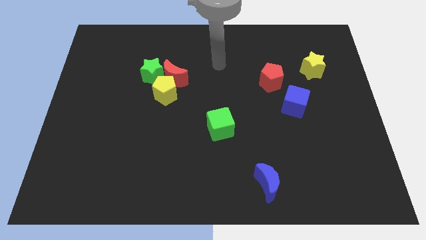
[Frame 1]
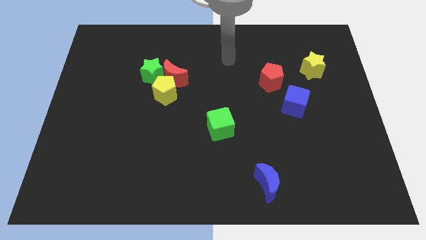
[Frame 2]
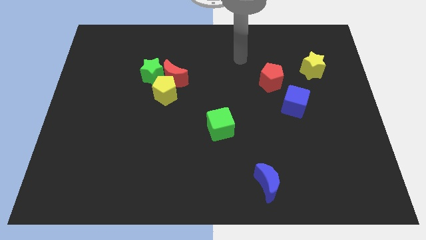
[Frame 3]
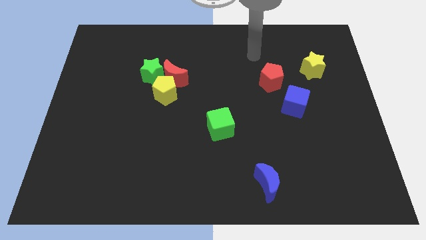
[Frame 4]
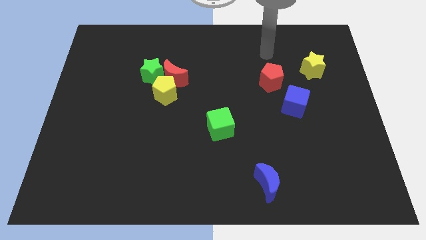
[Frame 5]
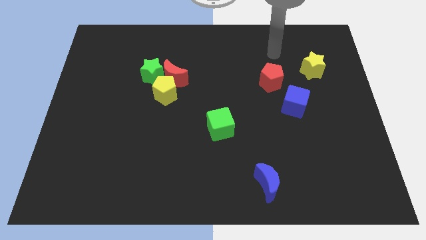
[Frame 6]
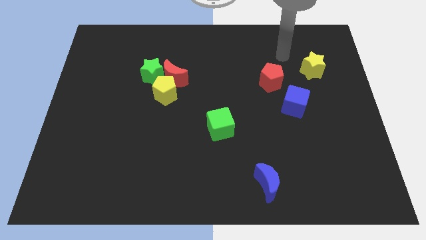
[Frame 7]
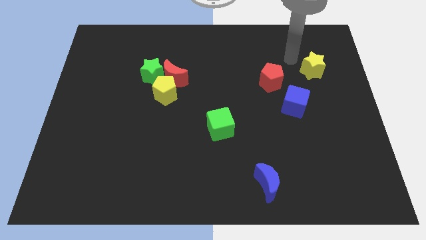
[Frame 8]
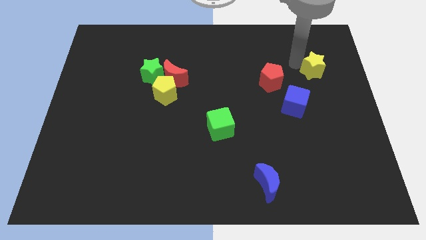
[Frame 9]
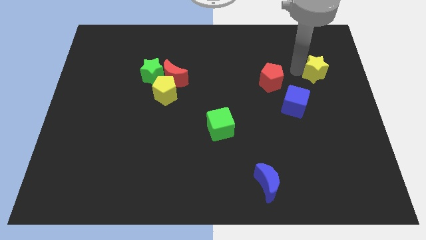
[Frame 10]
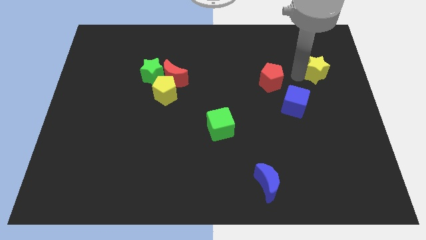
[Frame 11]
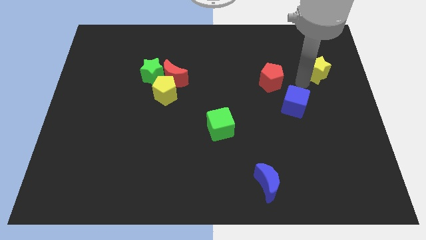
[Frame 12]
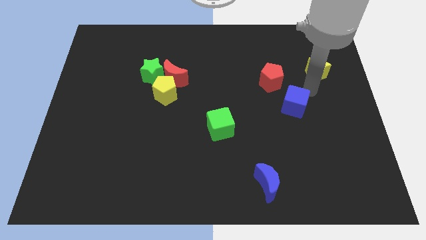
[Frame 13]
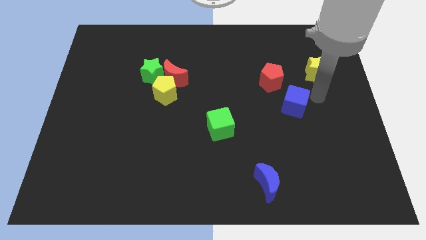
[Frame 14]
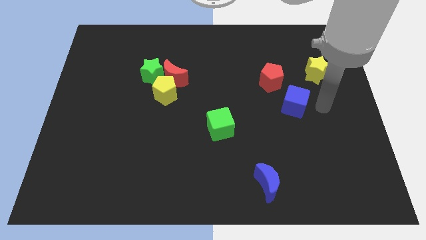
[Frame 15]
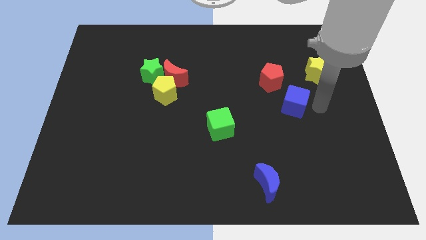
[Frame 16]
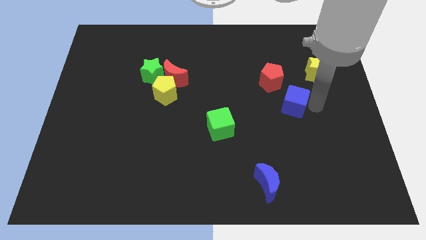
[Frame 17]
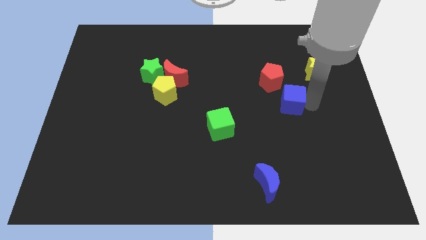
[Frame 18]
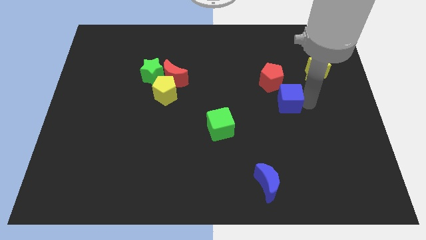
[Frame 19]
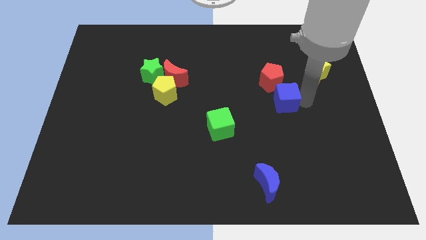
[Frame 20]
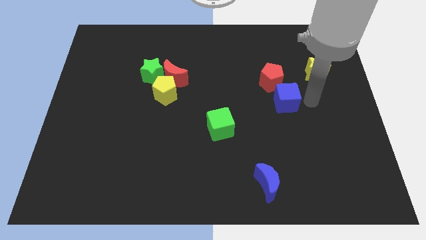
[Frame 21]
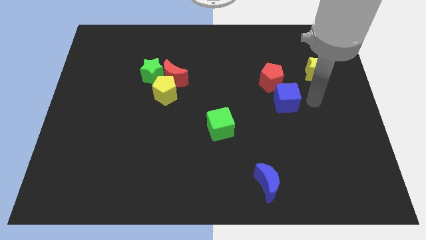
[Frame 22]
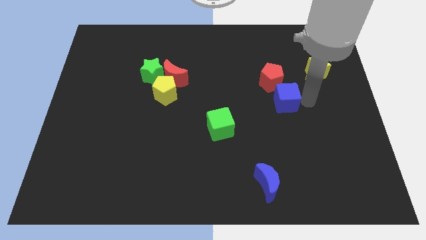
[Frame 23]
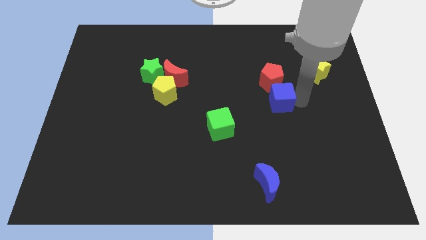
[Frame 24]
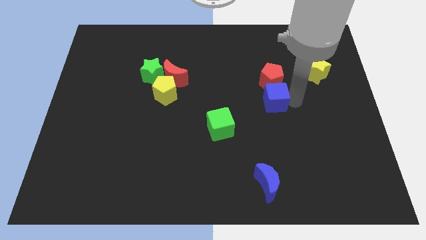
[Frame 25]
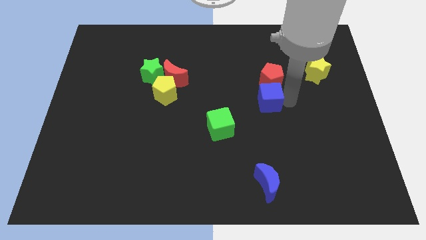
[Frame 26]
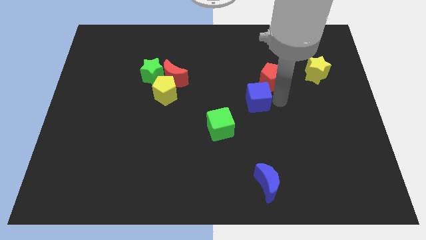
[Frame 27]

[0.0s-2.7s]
slide the blue cube to the left a bit

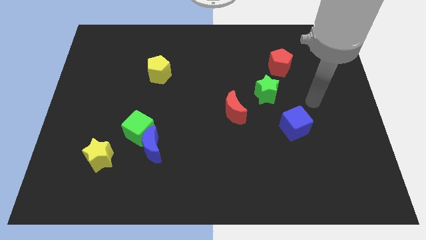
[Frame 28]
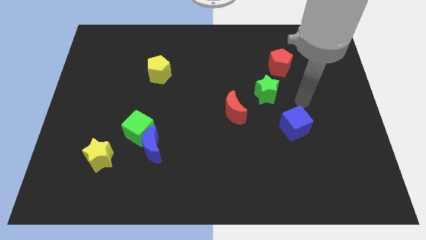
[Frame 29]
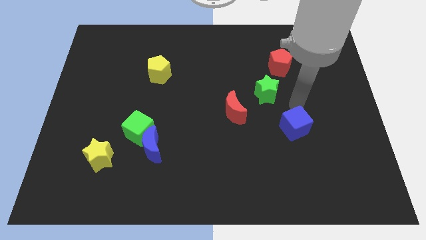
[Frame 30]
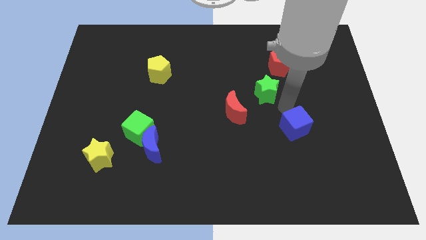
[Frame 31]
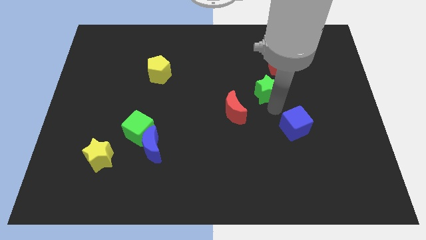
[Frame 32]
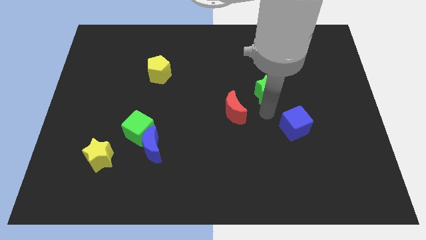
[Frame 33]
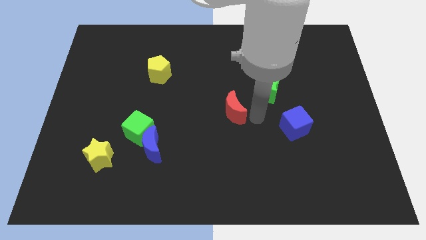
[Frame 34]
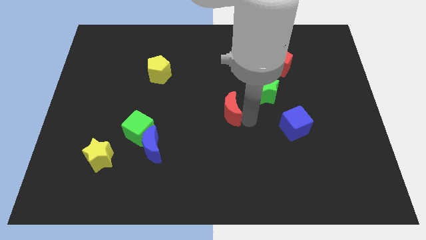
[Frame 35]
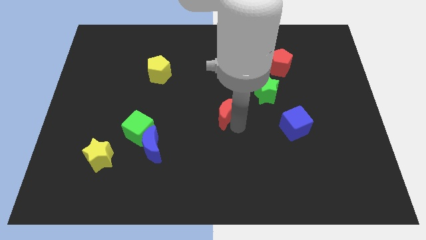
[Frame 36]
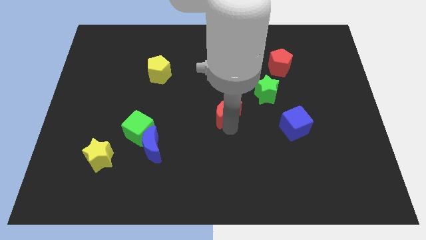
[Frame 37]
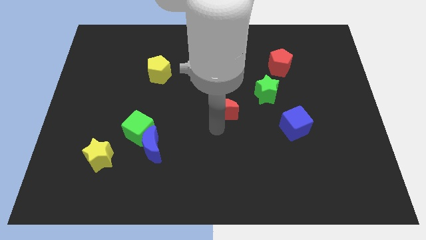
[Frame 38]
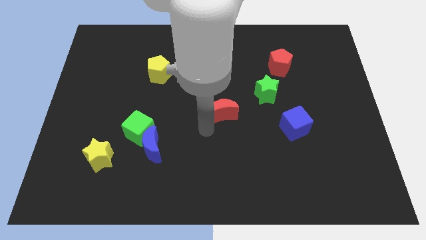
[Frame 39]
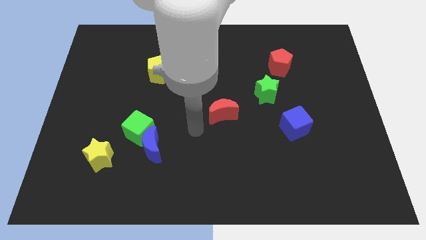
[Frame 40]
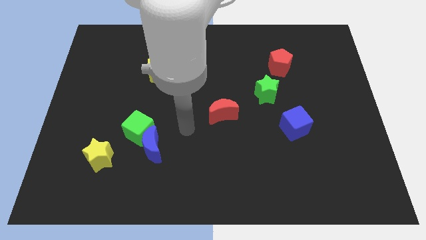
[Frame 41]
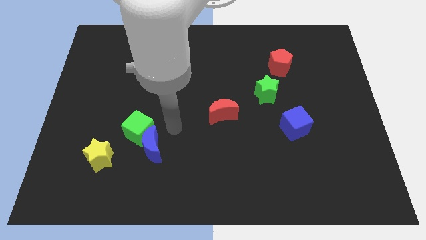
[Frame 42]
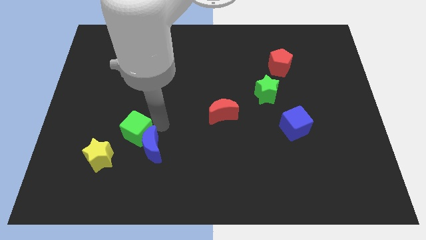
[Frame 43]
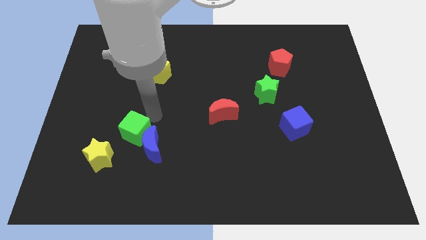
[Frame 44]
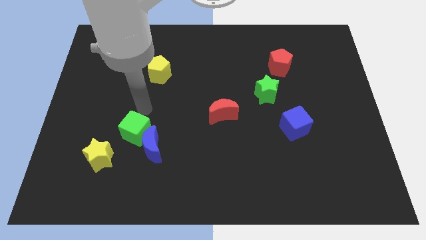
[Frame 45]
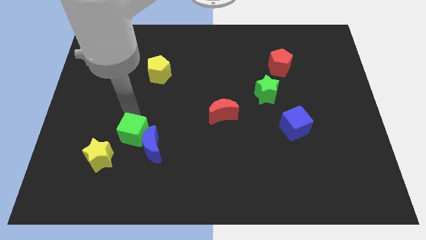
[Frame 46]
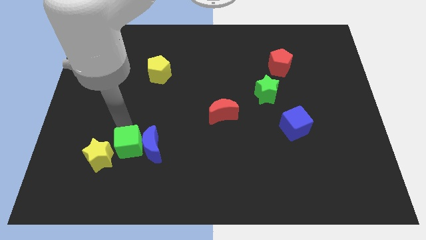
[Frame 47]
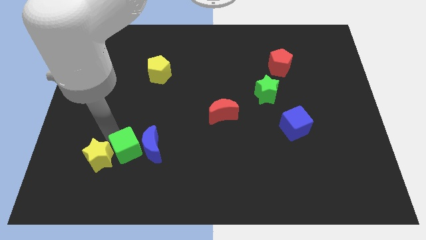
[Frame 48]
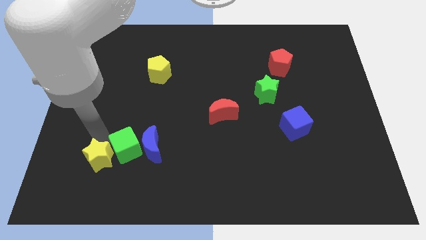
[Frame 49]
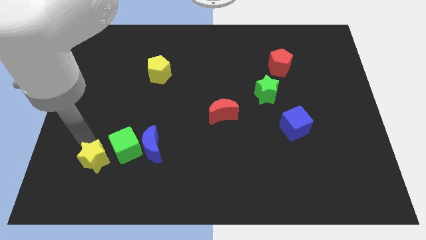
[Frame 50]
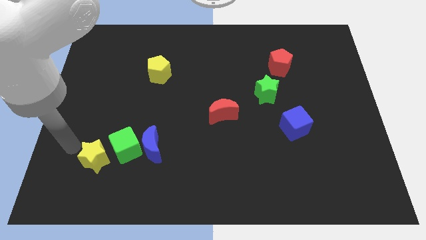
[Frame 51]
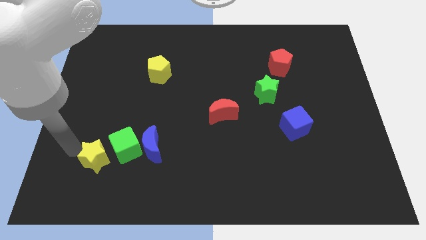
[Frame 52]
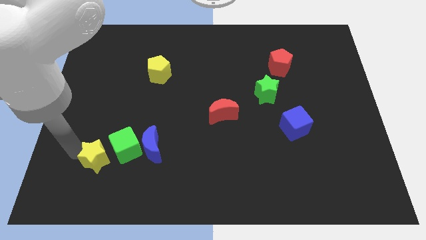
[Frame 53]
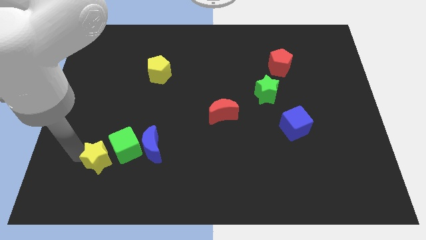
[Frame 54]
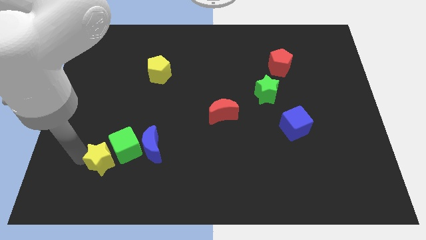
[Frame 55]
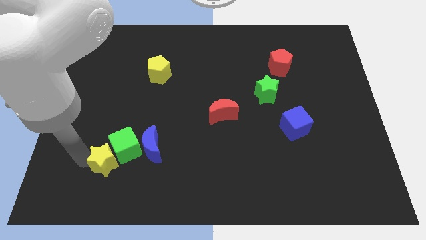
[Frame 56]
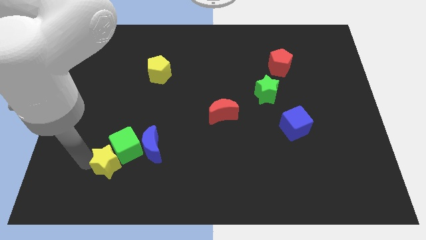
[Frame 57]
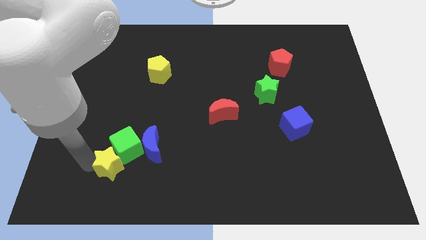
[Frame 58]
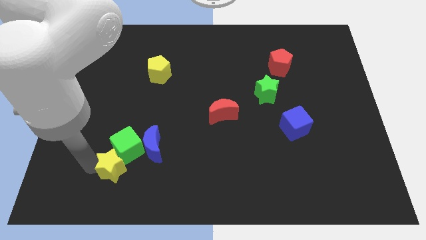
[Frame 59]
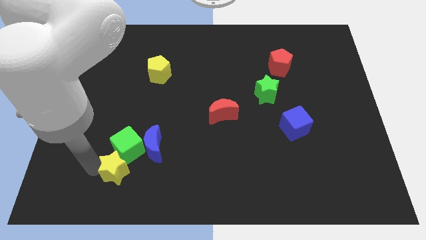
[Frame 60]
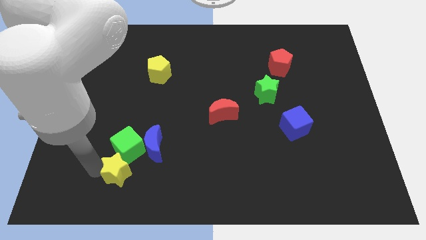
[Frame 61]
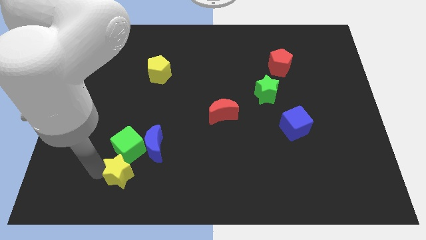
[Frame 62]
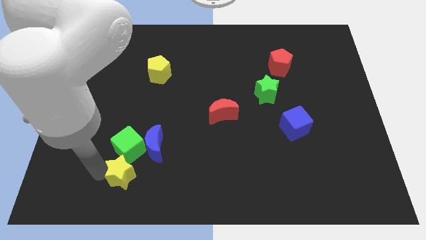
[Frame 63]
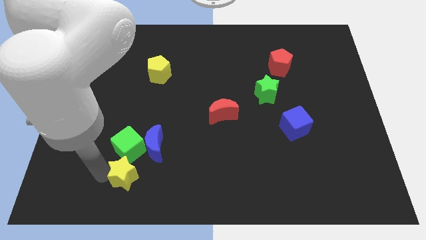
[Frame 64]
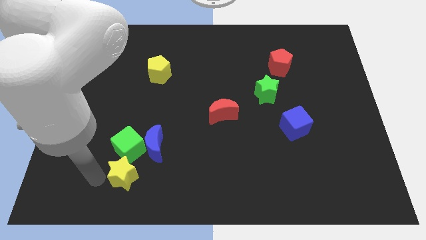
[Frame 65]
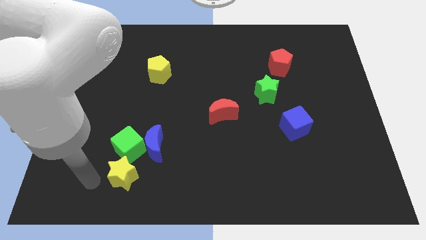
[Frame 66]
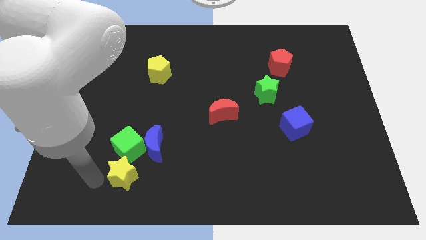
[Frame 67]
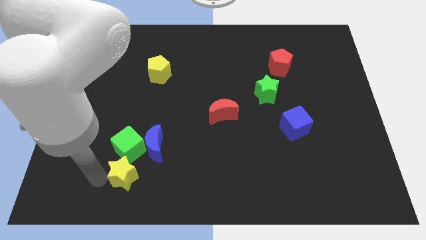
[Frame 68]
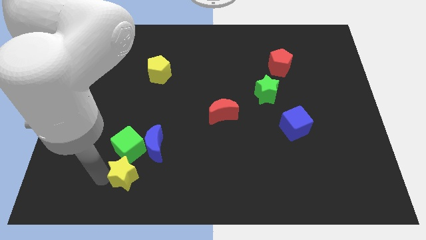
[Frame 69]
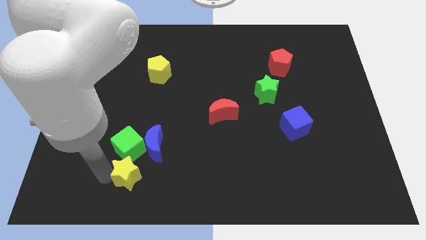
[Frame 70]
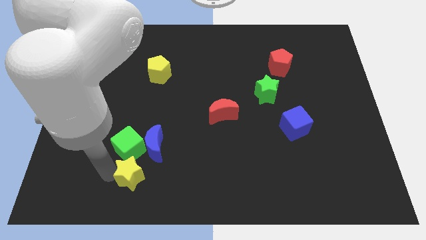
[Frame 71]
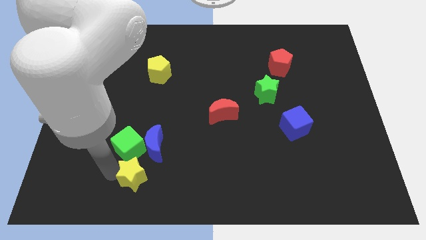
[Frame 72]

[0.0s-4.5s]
push the yellow star to the right somewhat

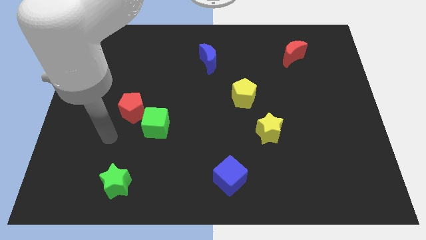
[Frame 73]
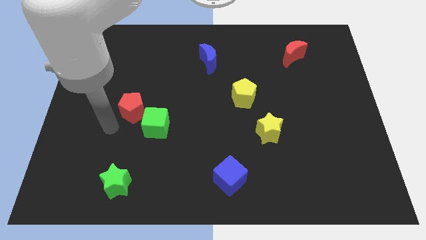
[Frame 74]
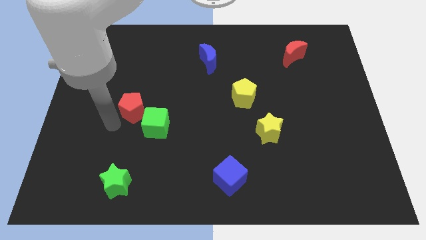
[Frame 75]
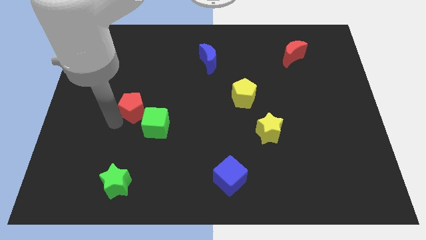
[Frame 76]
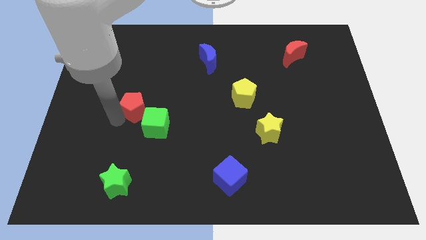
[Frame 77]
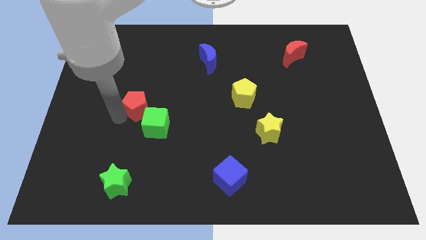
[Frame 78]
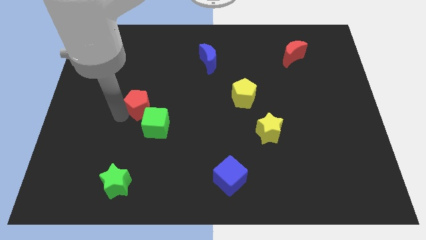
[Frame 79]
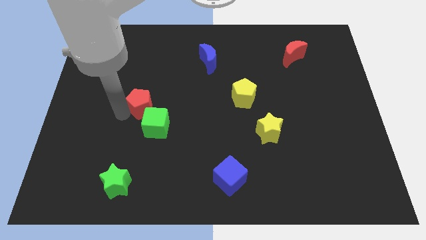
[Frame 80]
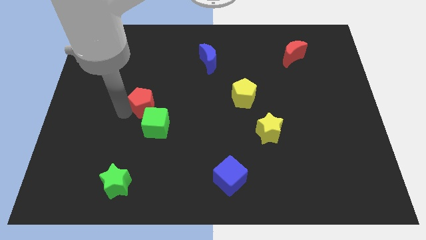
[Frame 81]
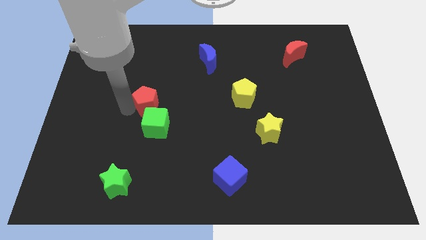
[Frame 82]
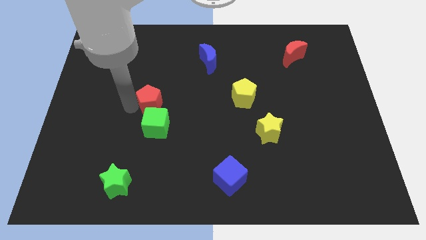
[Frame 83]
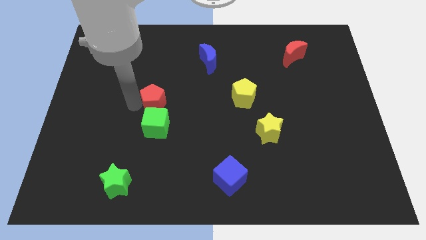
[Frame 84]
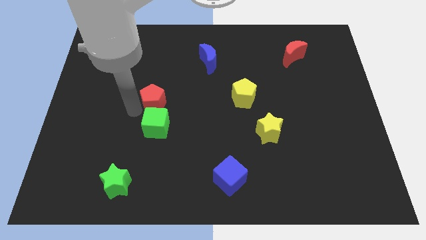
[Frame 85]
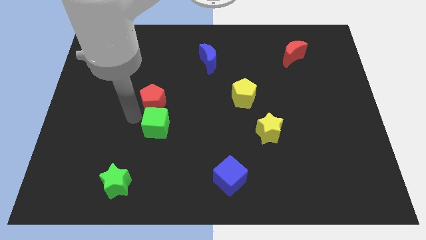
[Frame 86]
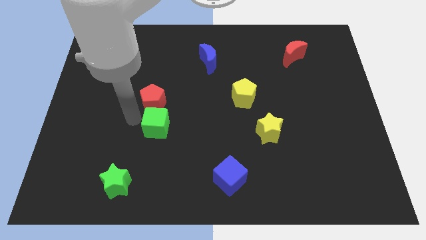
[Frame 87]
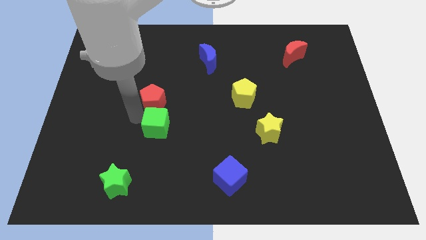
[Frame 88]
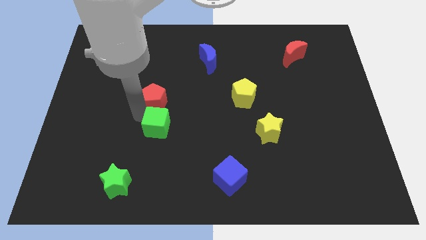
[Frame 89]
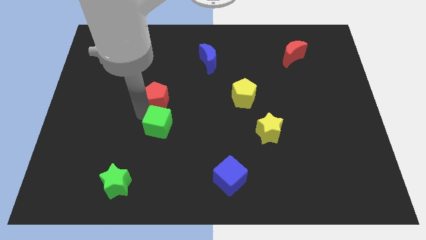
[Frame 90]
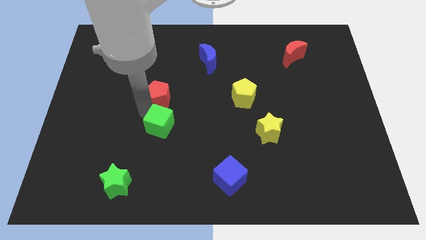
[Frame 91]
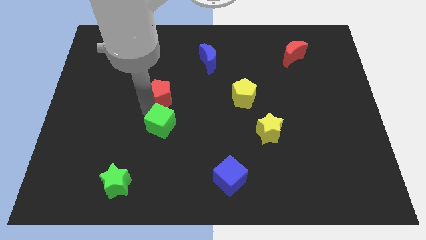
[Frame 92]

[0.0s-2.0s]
push the red pentagon slightly diagonally up and to the right
